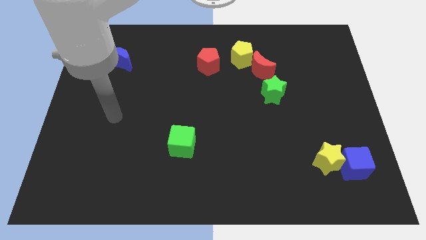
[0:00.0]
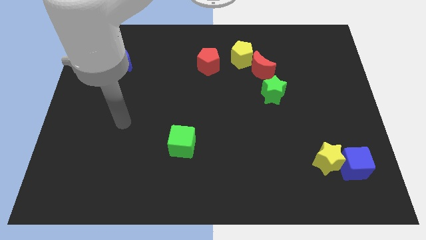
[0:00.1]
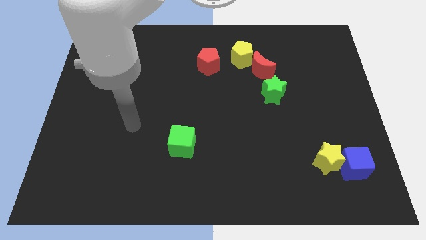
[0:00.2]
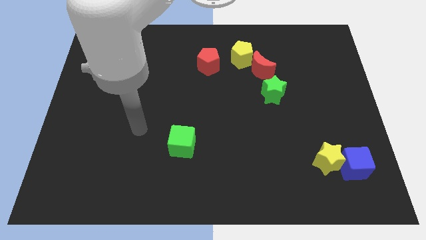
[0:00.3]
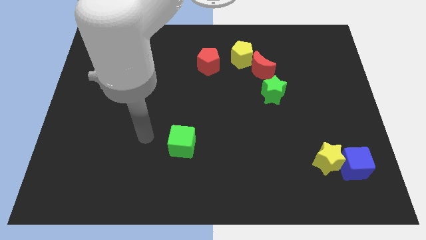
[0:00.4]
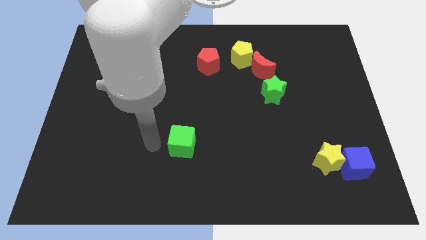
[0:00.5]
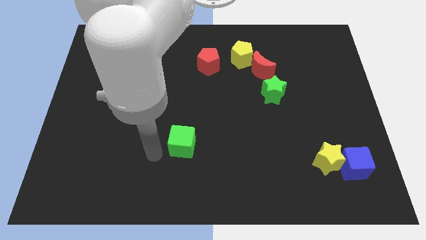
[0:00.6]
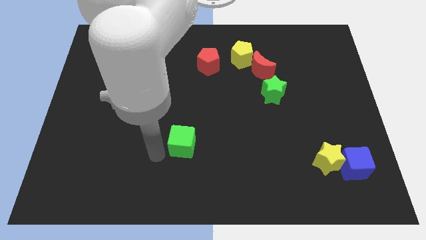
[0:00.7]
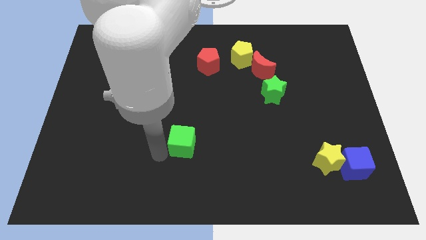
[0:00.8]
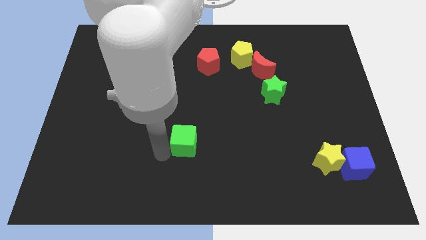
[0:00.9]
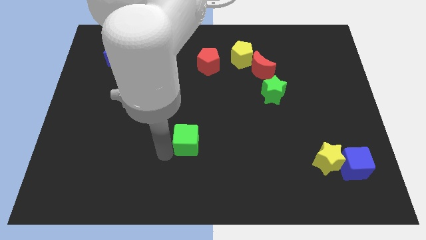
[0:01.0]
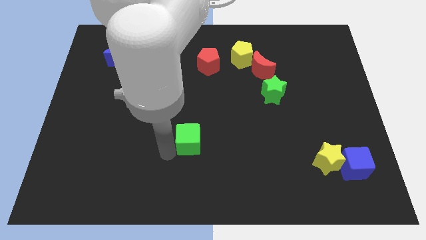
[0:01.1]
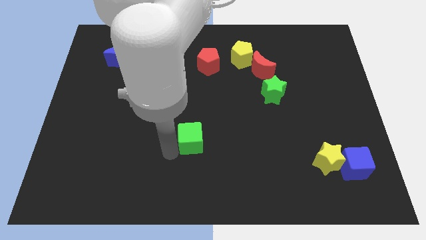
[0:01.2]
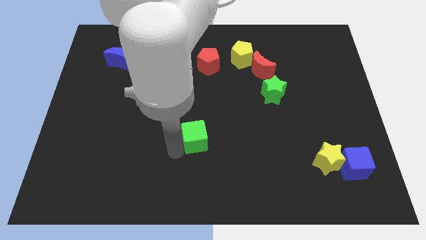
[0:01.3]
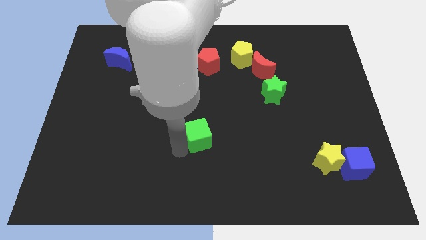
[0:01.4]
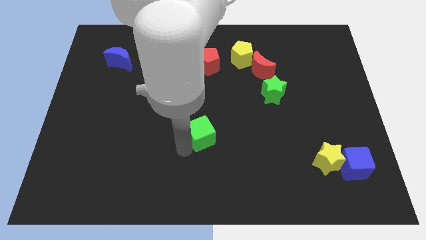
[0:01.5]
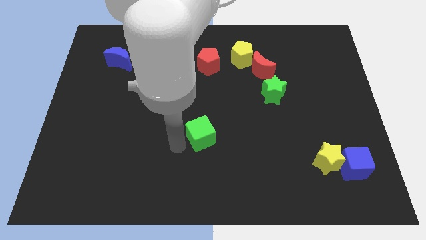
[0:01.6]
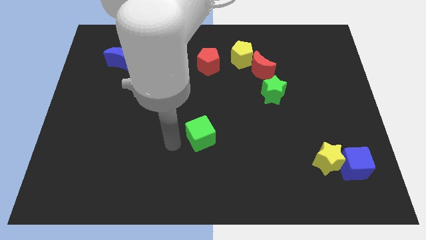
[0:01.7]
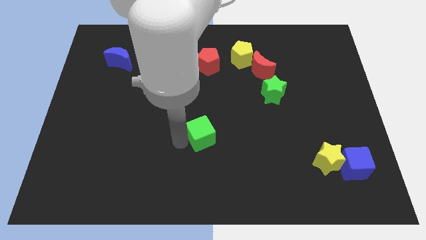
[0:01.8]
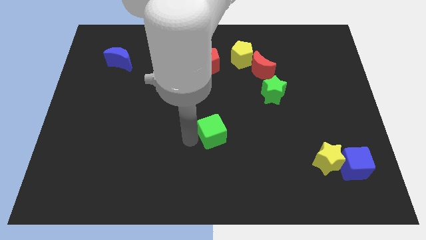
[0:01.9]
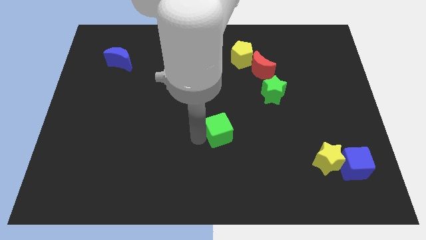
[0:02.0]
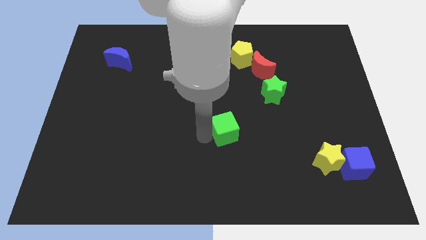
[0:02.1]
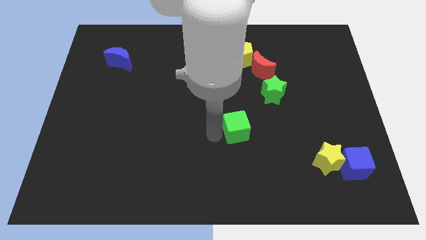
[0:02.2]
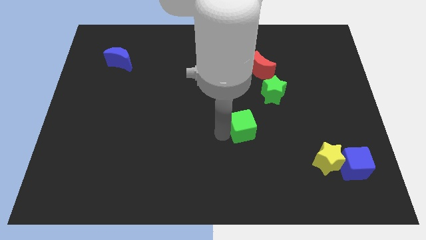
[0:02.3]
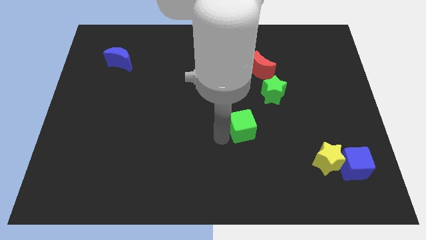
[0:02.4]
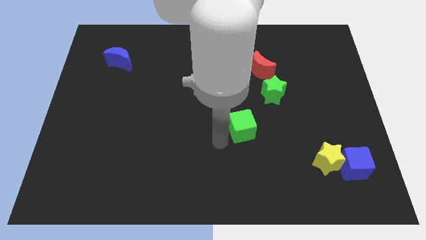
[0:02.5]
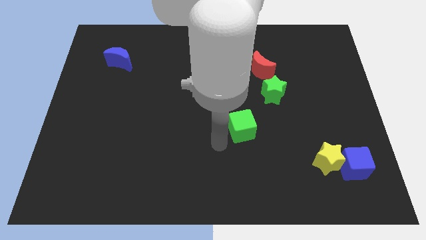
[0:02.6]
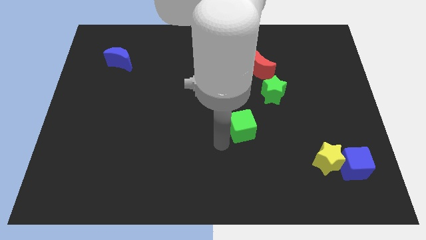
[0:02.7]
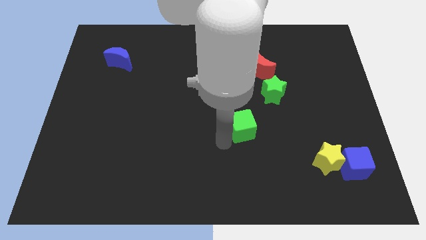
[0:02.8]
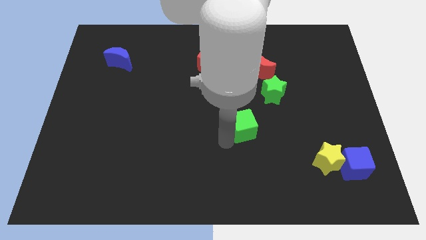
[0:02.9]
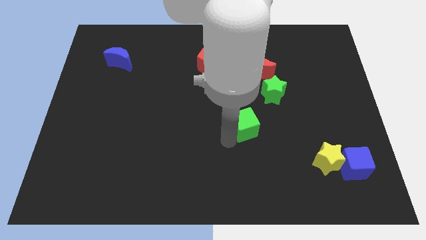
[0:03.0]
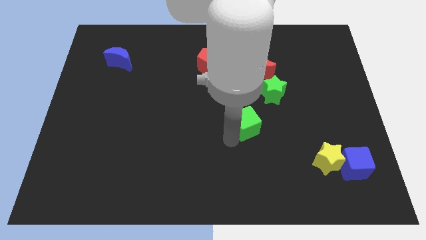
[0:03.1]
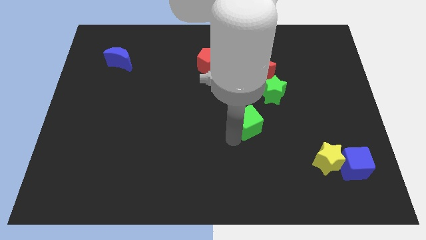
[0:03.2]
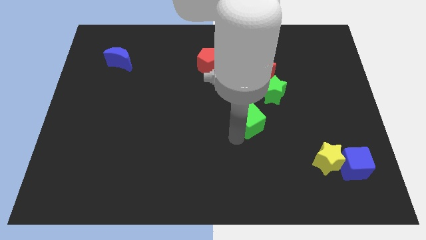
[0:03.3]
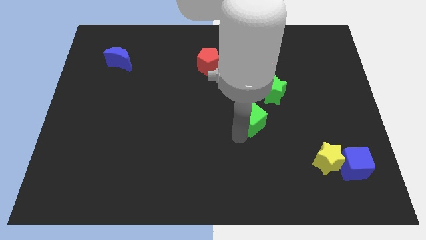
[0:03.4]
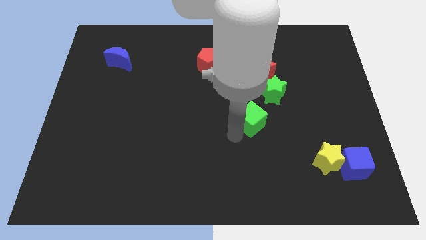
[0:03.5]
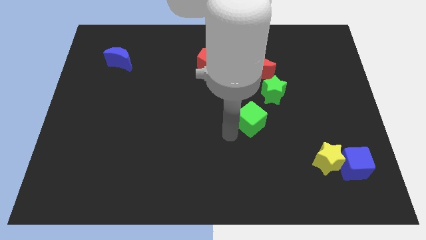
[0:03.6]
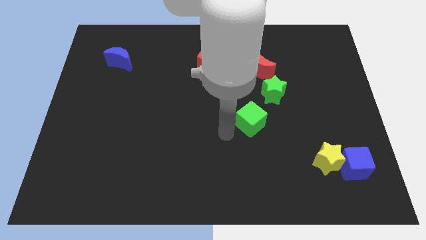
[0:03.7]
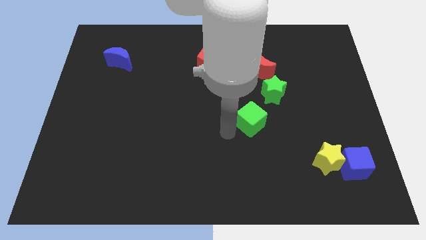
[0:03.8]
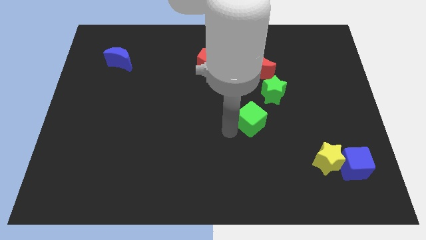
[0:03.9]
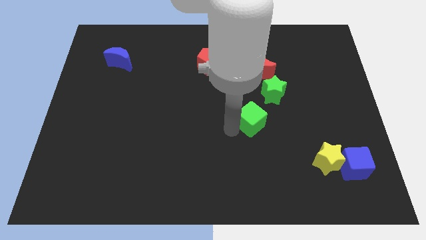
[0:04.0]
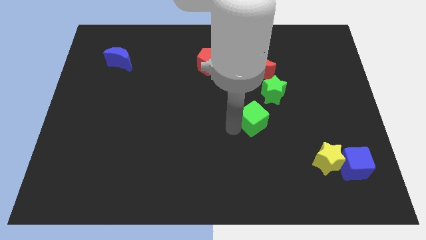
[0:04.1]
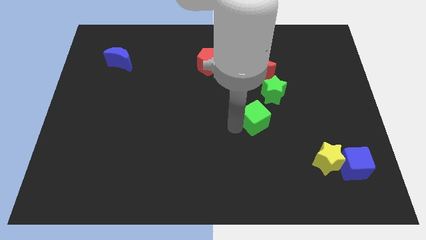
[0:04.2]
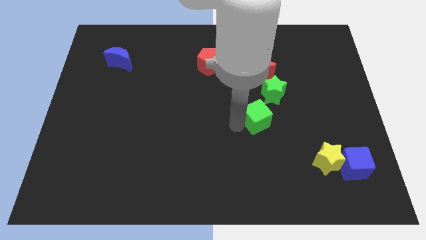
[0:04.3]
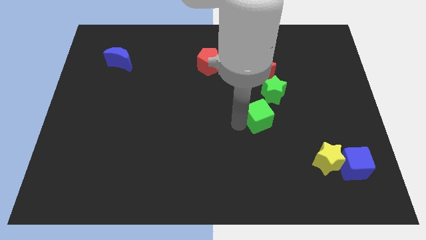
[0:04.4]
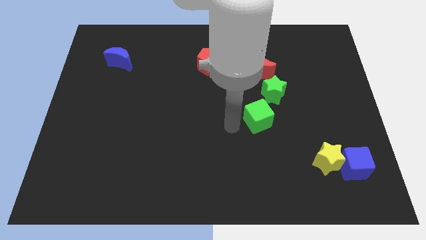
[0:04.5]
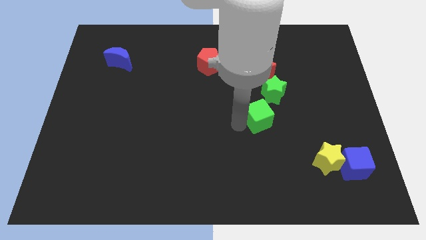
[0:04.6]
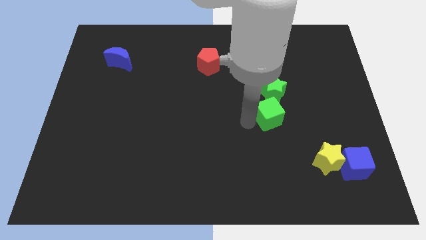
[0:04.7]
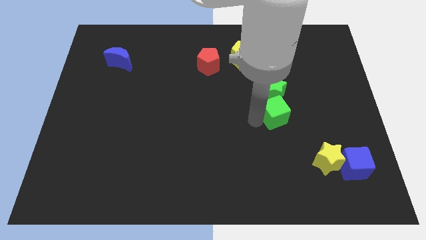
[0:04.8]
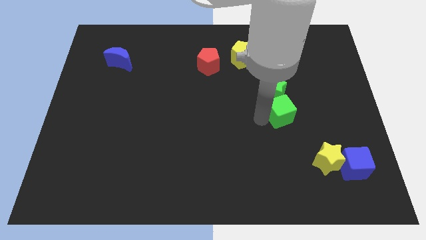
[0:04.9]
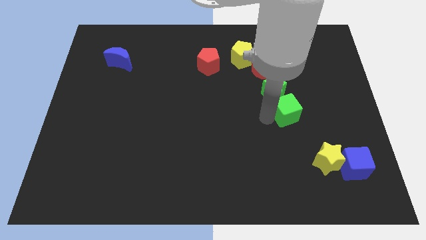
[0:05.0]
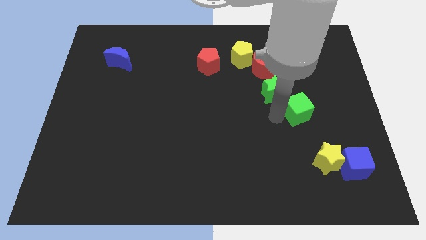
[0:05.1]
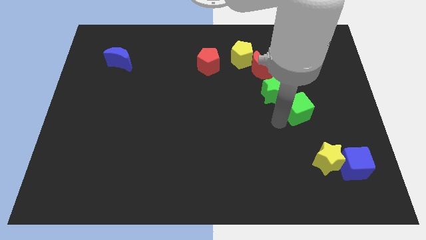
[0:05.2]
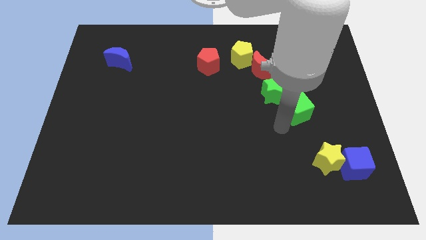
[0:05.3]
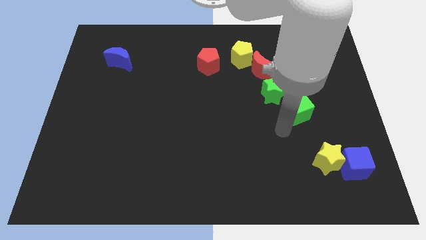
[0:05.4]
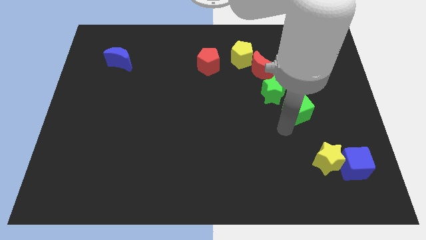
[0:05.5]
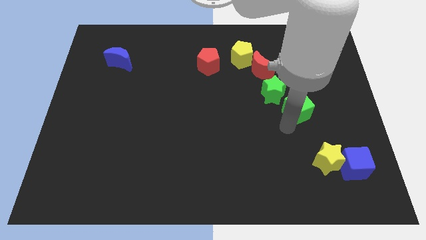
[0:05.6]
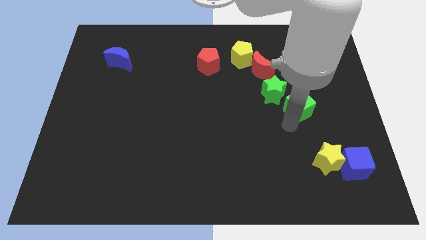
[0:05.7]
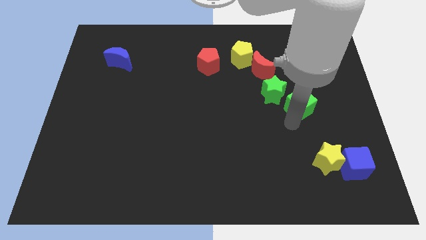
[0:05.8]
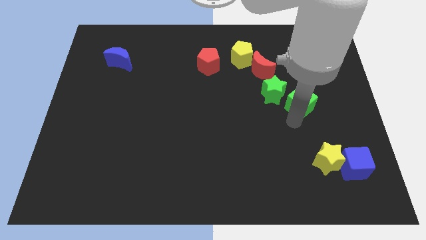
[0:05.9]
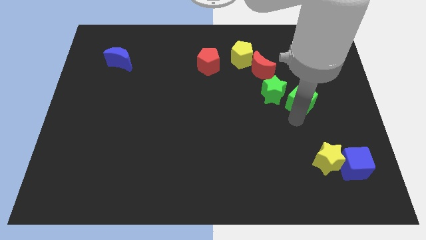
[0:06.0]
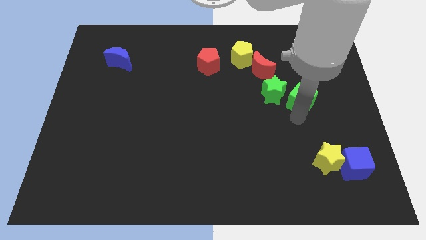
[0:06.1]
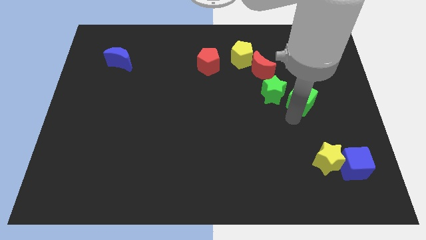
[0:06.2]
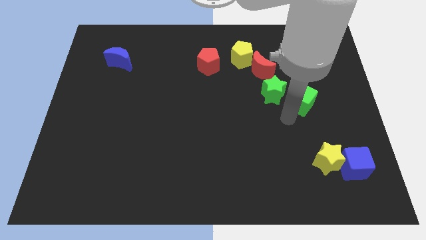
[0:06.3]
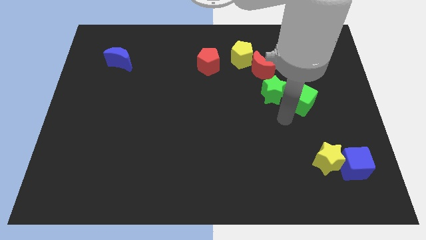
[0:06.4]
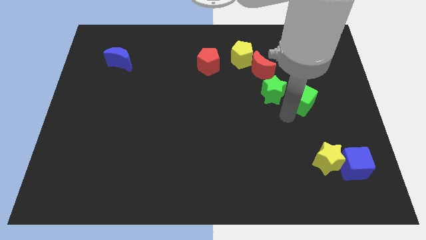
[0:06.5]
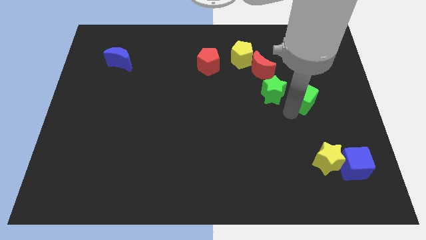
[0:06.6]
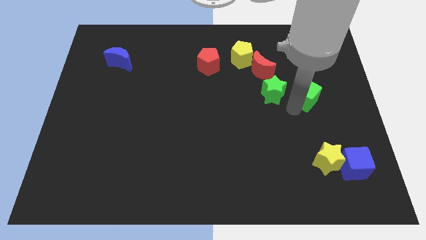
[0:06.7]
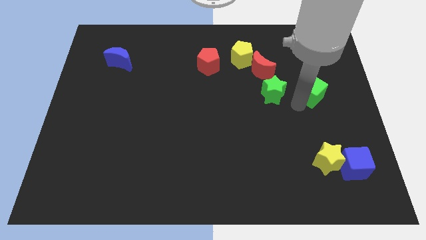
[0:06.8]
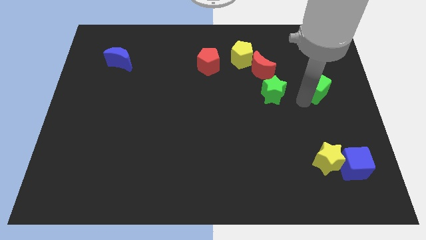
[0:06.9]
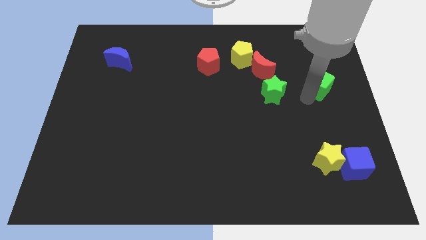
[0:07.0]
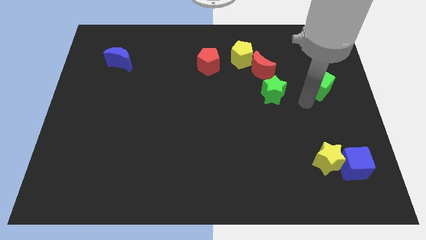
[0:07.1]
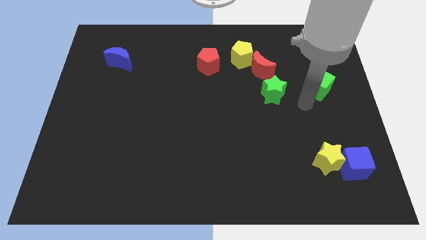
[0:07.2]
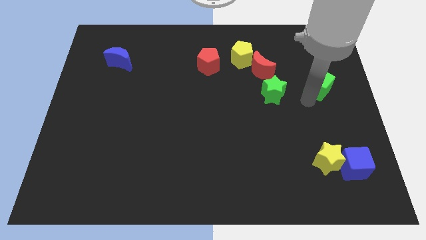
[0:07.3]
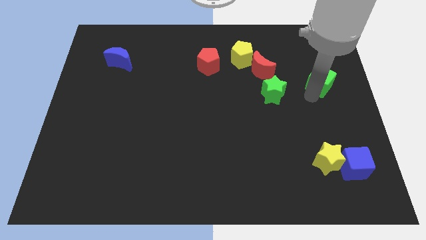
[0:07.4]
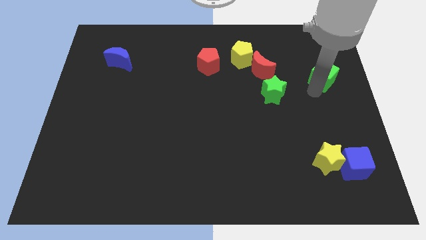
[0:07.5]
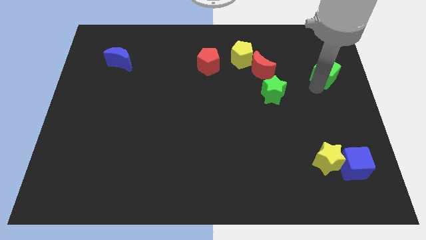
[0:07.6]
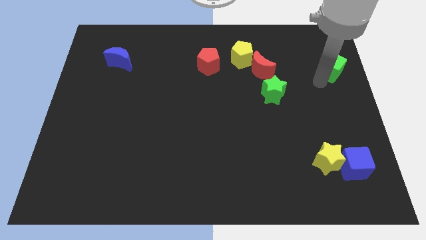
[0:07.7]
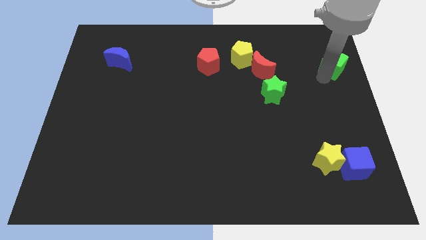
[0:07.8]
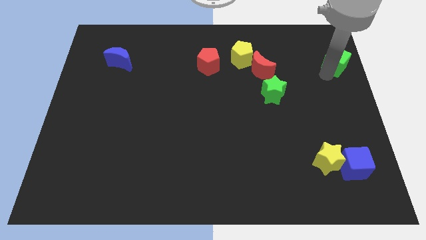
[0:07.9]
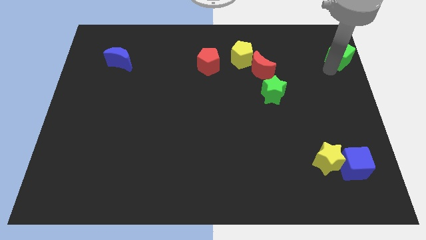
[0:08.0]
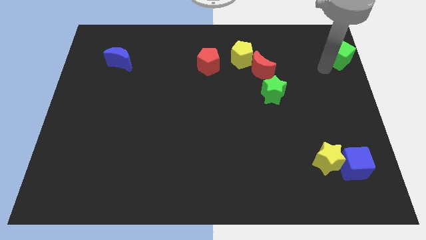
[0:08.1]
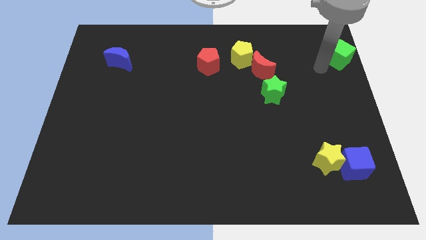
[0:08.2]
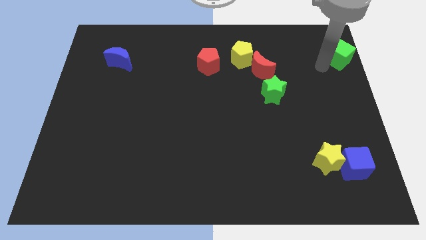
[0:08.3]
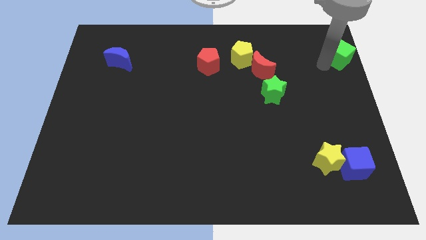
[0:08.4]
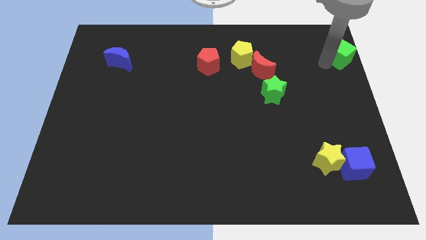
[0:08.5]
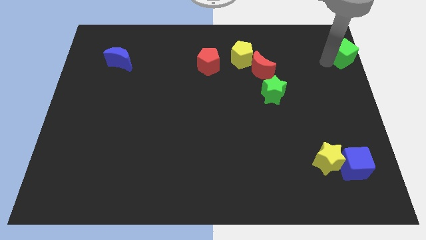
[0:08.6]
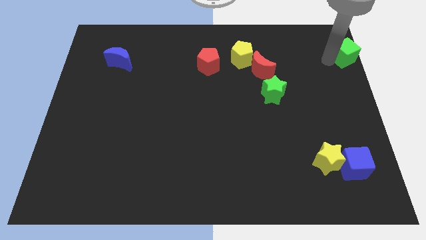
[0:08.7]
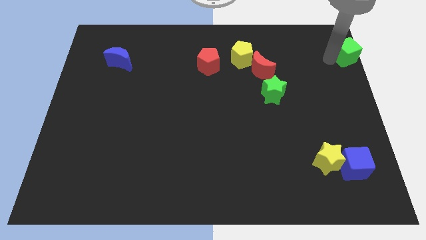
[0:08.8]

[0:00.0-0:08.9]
put the green cube to the top right of the board
